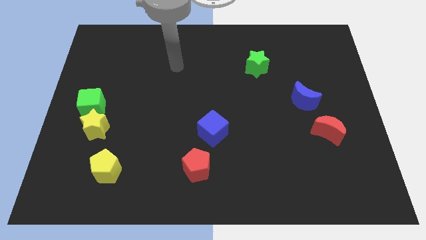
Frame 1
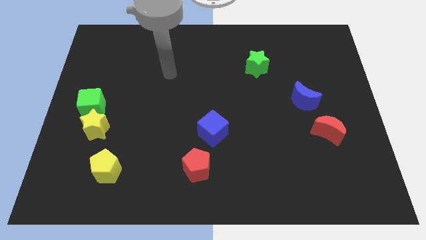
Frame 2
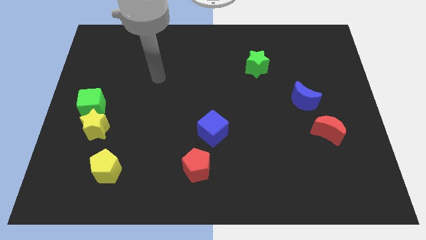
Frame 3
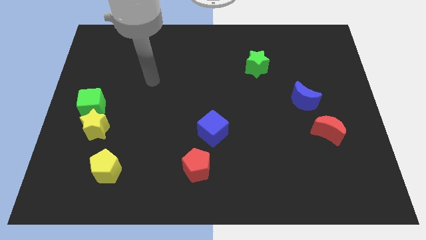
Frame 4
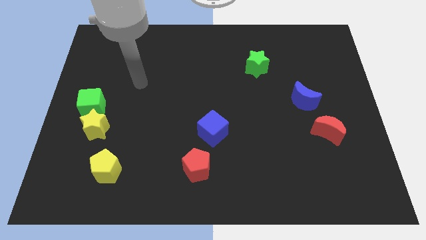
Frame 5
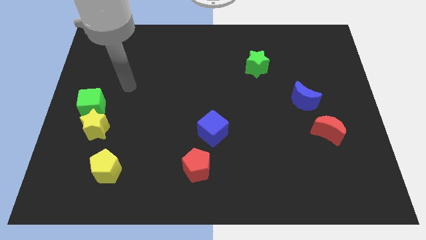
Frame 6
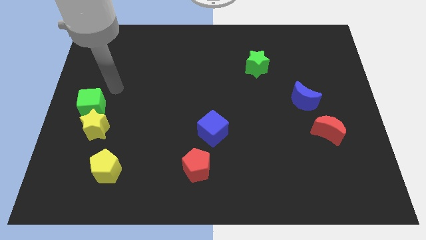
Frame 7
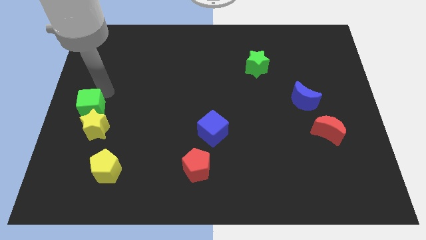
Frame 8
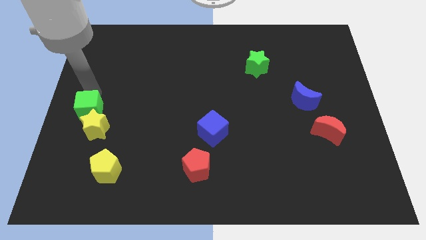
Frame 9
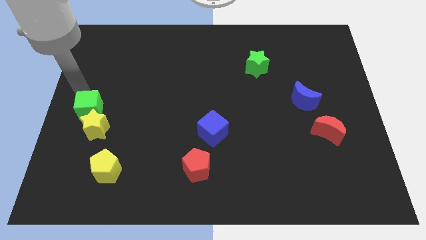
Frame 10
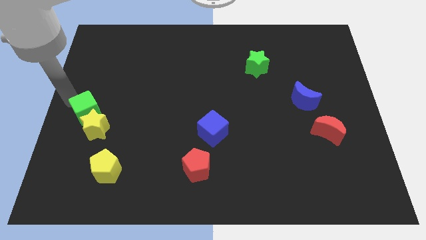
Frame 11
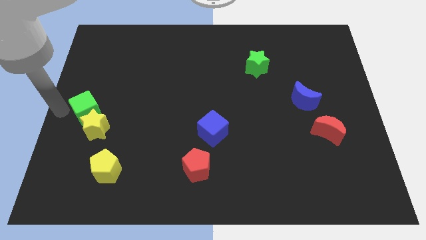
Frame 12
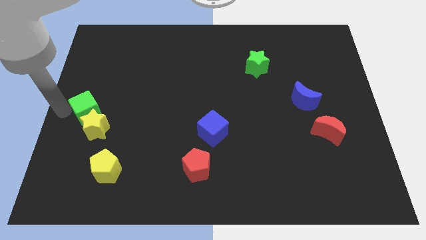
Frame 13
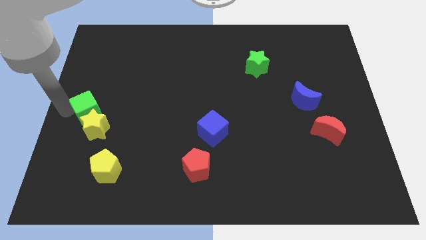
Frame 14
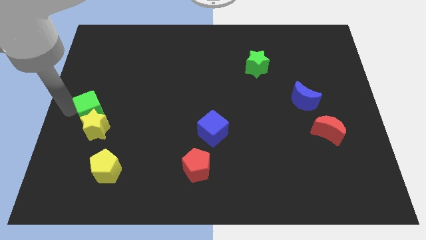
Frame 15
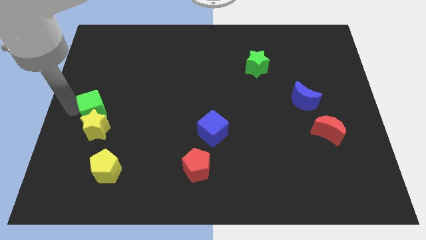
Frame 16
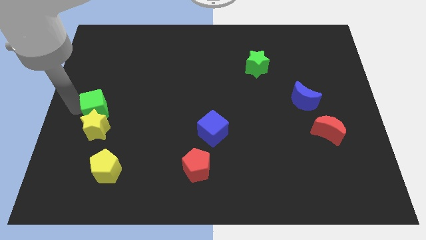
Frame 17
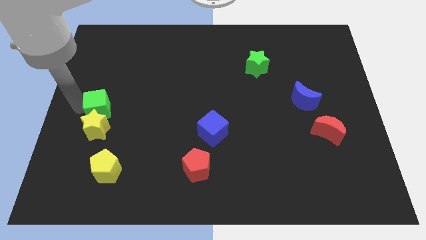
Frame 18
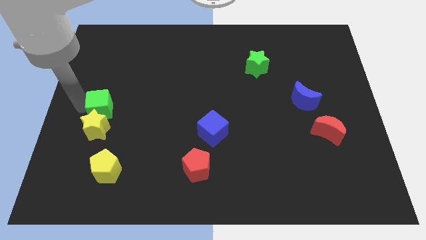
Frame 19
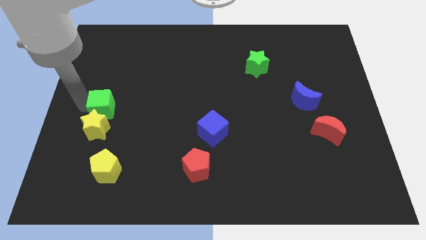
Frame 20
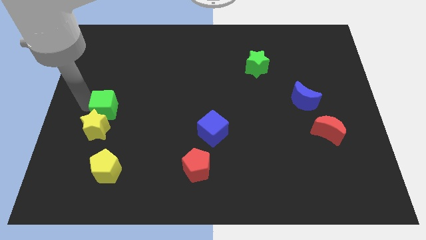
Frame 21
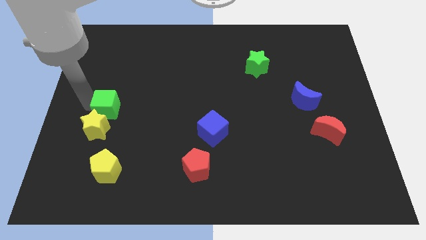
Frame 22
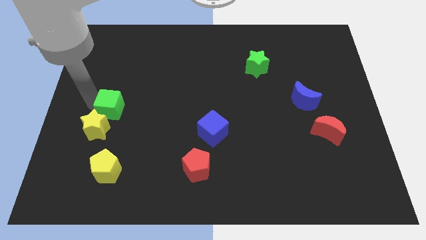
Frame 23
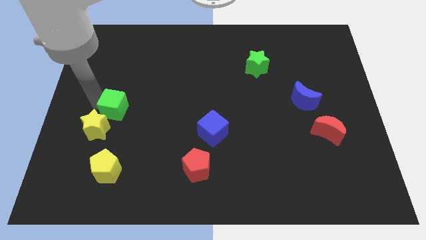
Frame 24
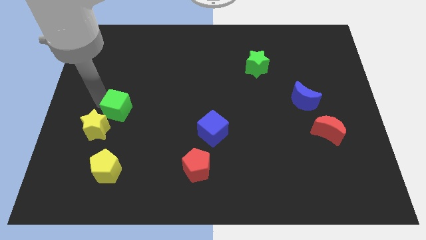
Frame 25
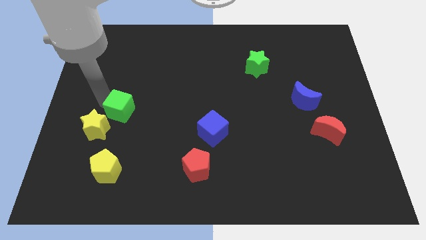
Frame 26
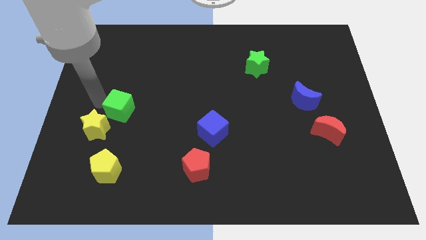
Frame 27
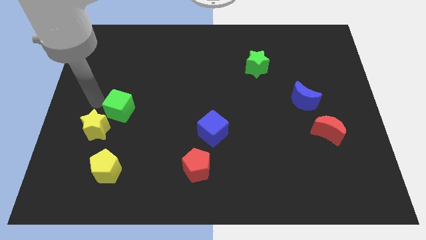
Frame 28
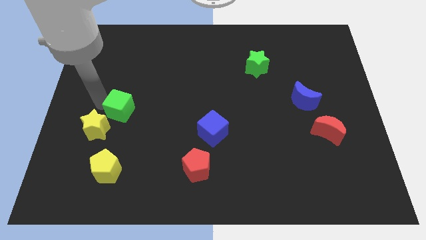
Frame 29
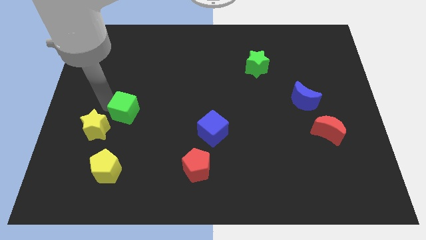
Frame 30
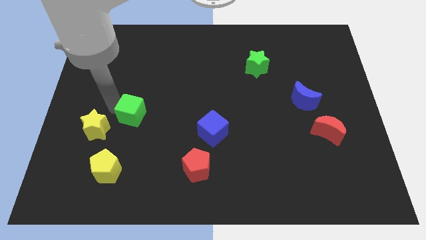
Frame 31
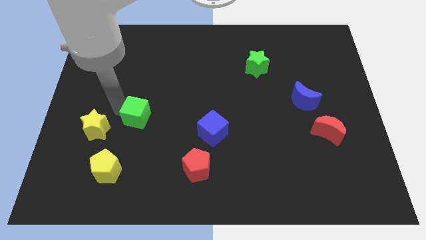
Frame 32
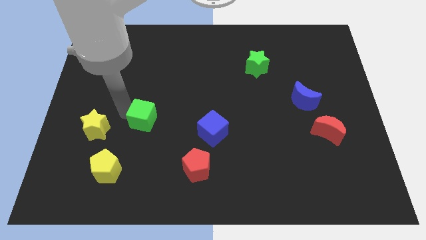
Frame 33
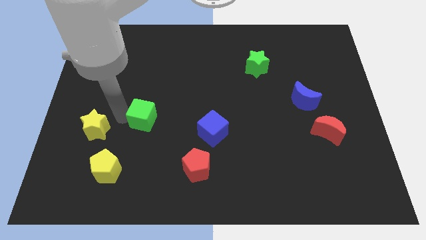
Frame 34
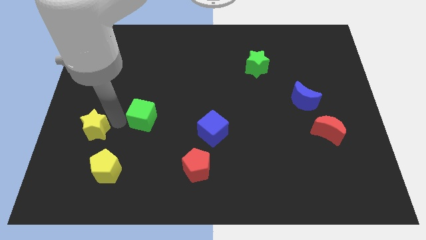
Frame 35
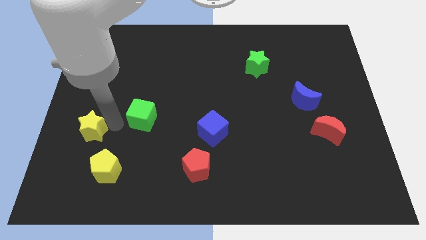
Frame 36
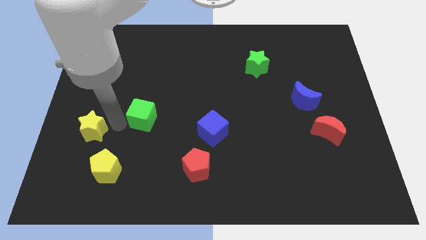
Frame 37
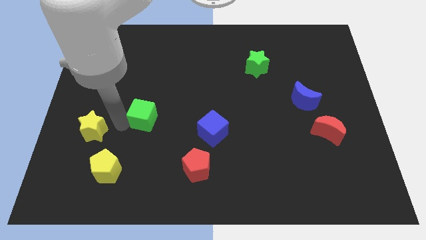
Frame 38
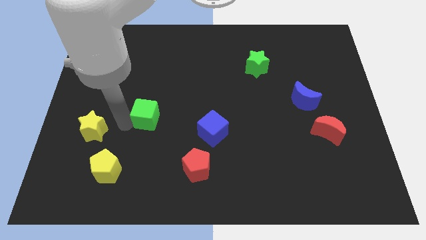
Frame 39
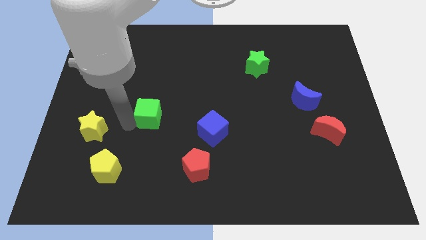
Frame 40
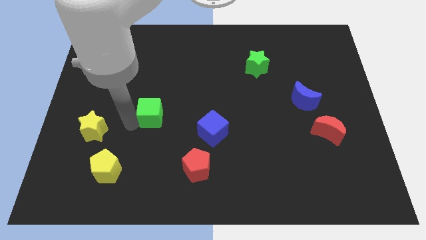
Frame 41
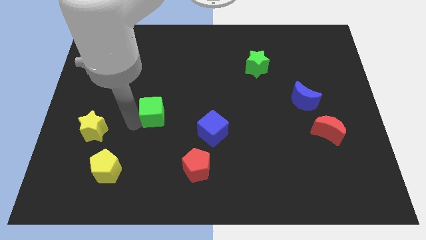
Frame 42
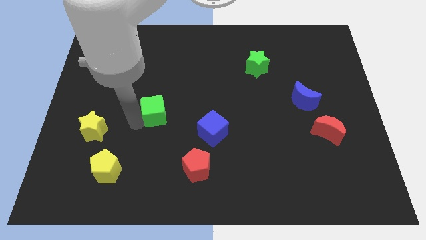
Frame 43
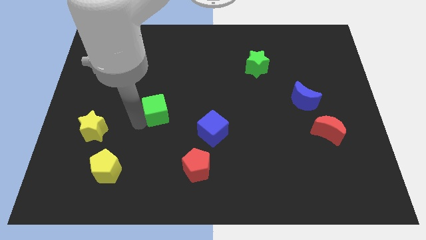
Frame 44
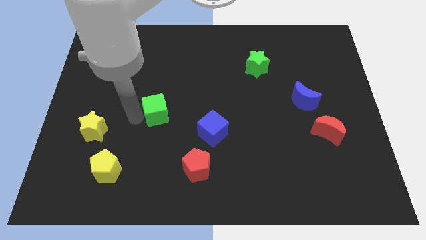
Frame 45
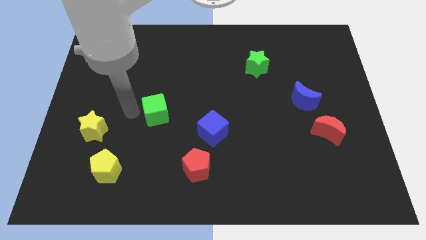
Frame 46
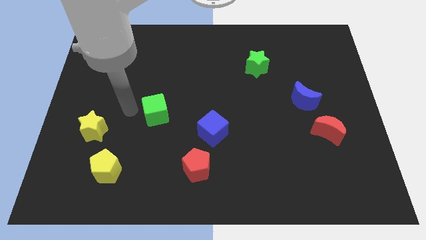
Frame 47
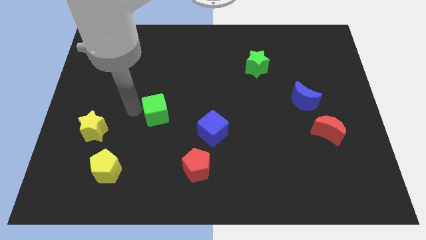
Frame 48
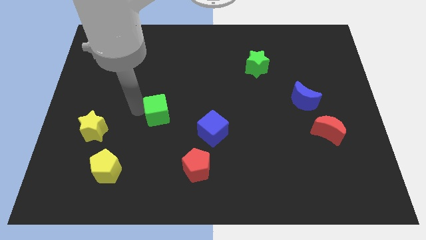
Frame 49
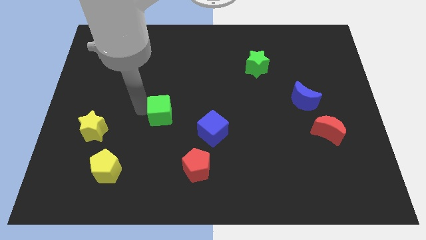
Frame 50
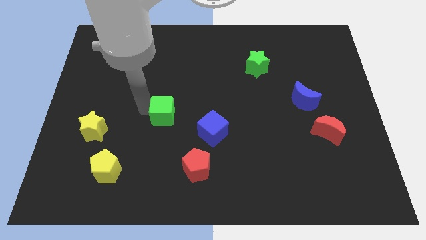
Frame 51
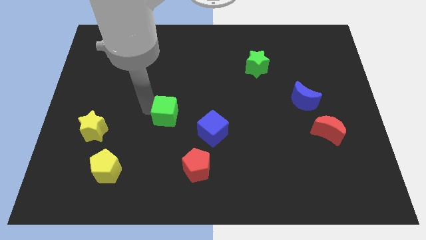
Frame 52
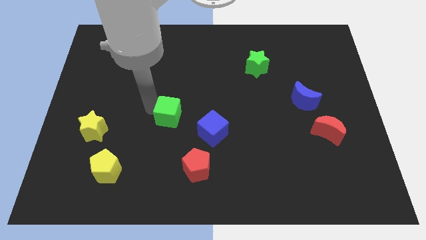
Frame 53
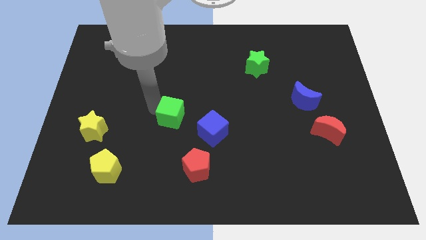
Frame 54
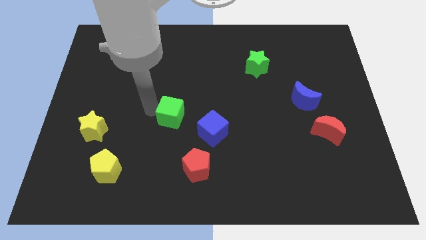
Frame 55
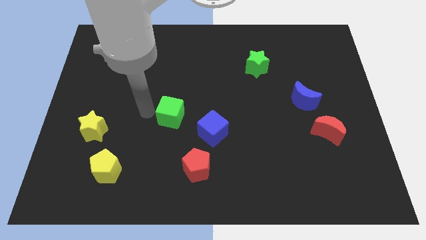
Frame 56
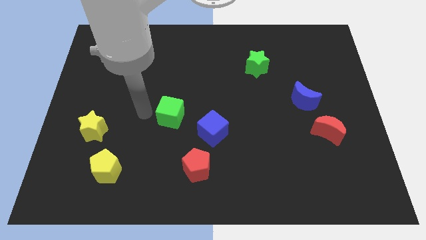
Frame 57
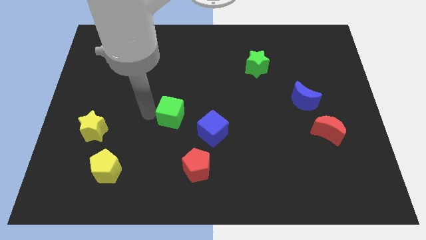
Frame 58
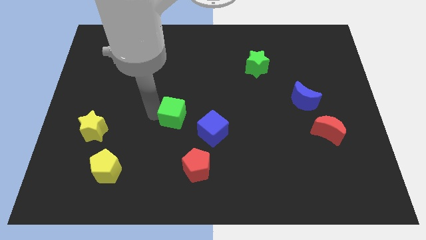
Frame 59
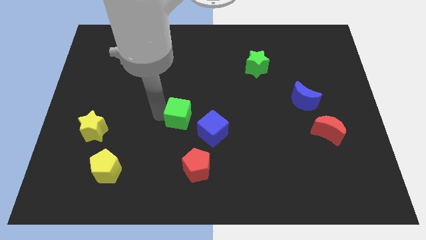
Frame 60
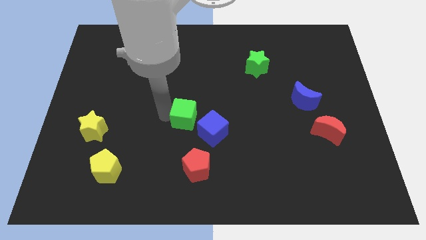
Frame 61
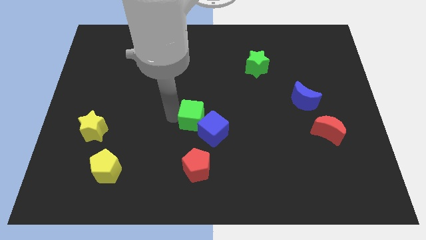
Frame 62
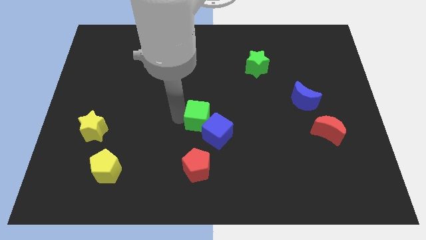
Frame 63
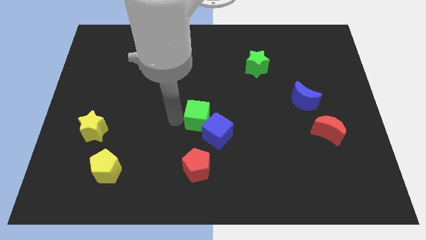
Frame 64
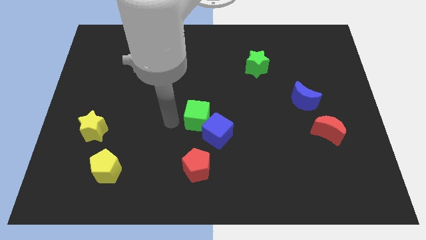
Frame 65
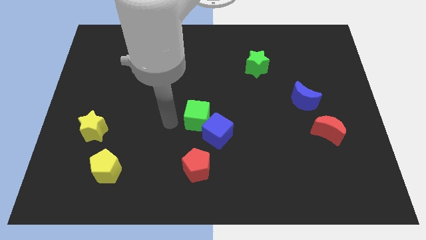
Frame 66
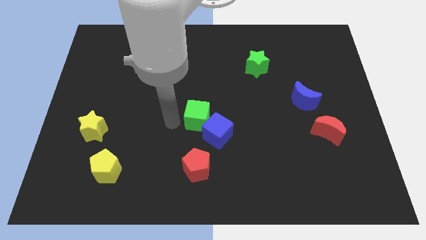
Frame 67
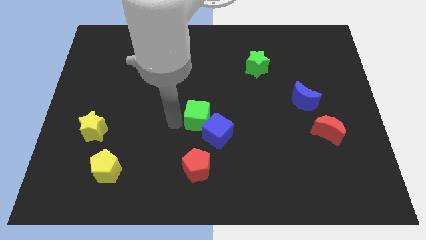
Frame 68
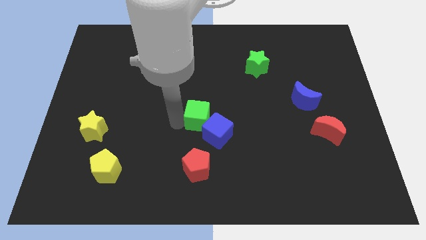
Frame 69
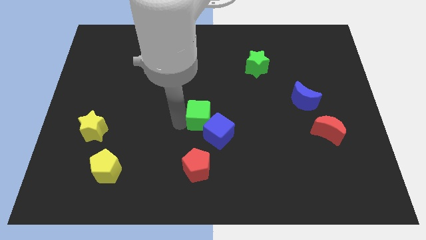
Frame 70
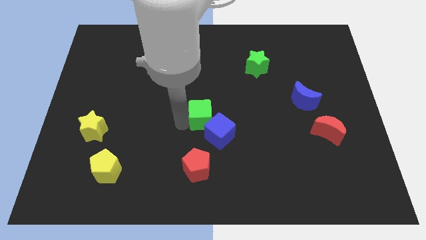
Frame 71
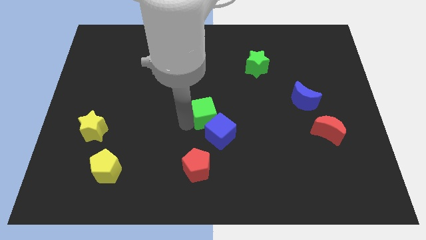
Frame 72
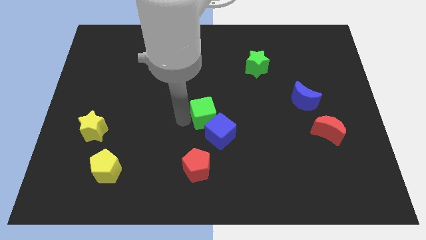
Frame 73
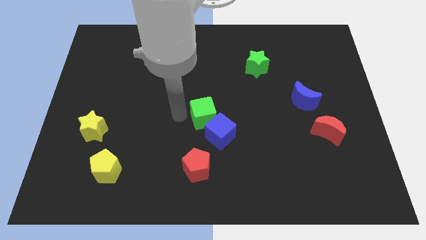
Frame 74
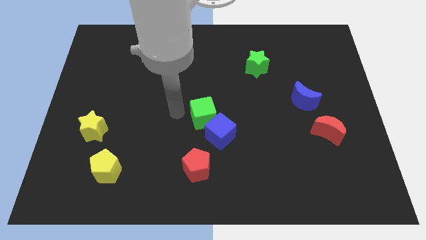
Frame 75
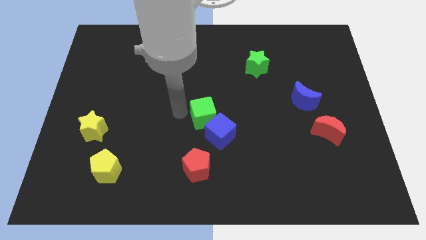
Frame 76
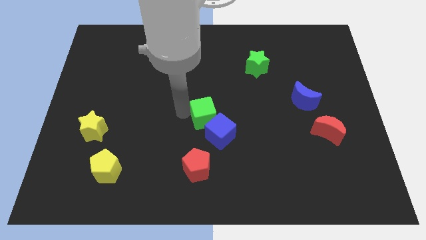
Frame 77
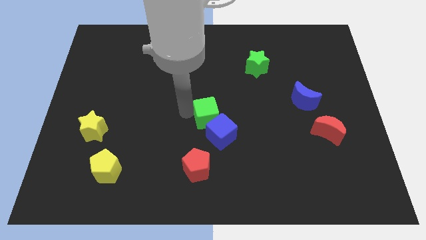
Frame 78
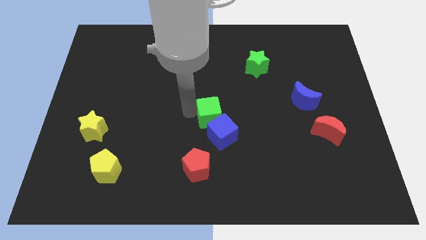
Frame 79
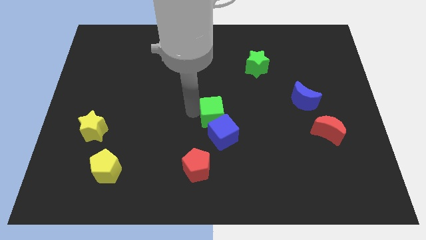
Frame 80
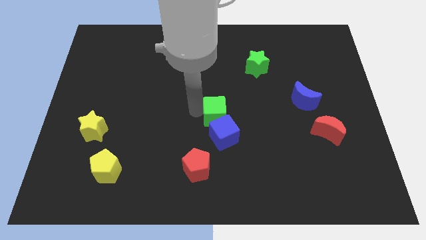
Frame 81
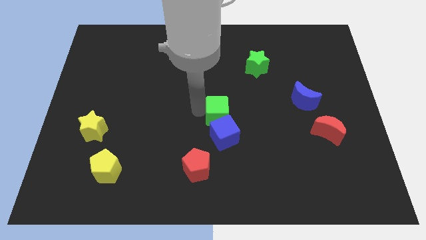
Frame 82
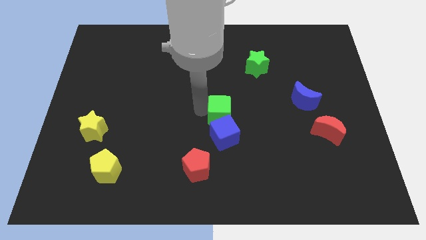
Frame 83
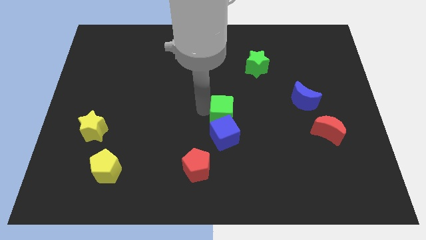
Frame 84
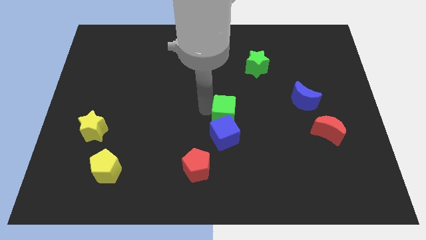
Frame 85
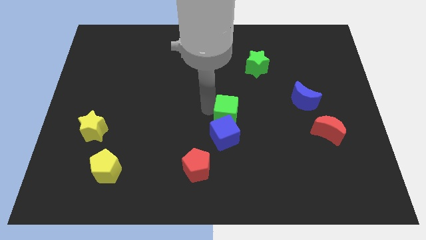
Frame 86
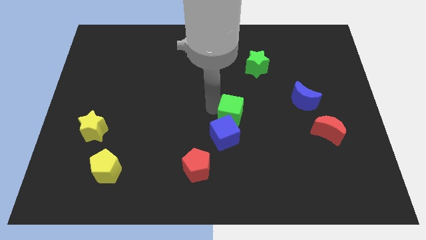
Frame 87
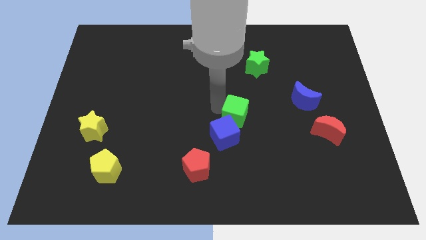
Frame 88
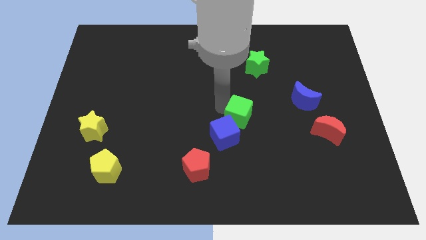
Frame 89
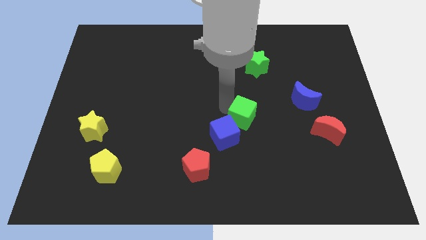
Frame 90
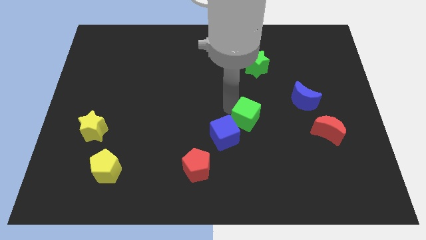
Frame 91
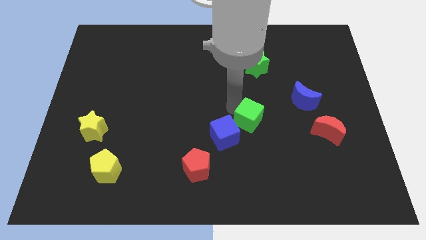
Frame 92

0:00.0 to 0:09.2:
put the green cube right of the blue cube
